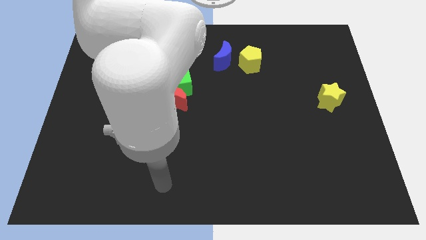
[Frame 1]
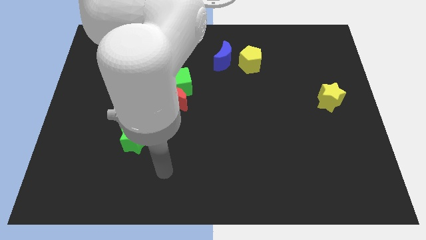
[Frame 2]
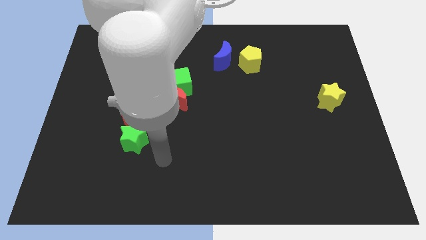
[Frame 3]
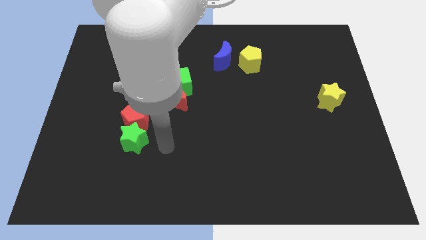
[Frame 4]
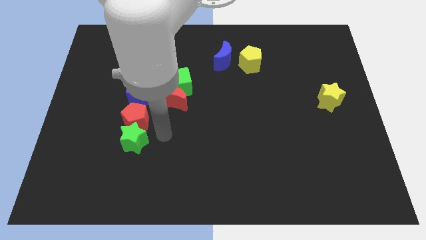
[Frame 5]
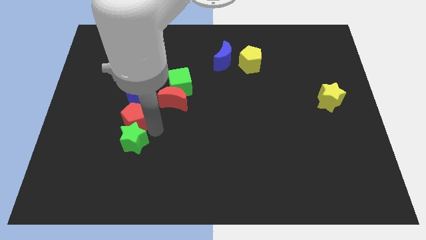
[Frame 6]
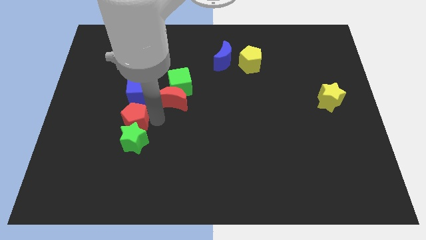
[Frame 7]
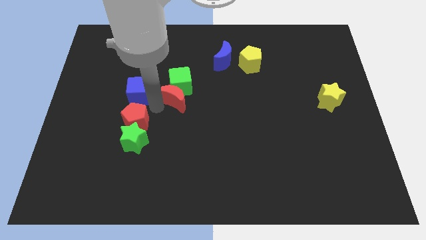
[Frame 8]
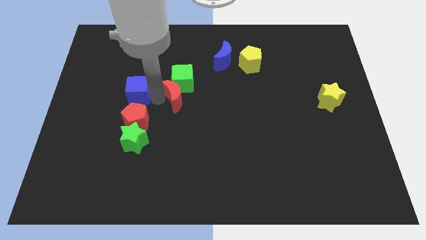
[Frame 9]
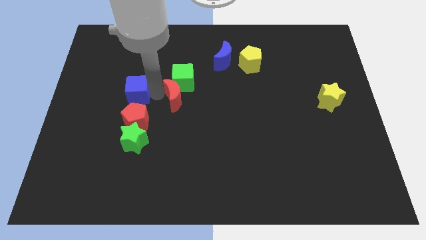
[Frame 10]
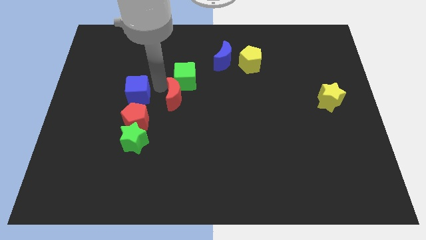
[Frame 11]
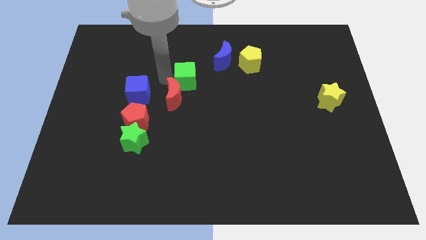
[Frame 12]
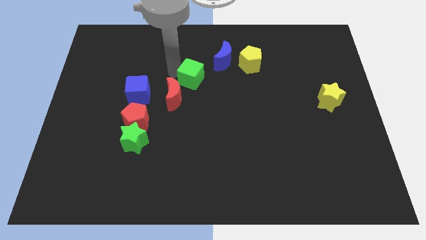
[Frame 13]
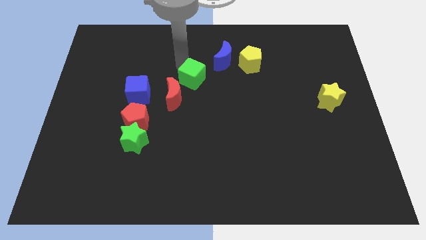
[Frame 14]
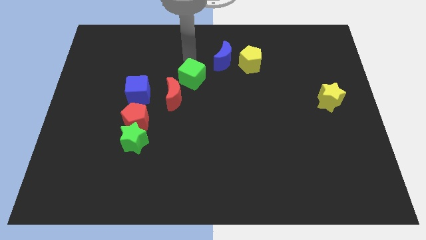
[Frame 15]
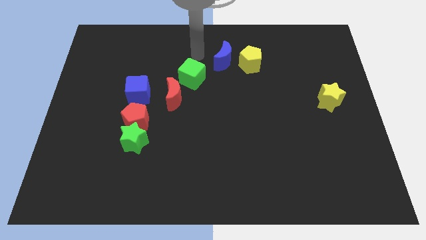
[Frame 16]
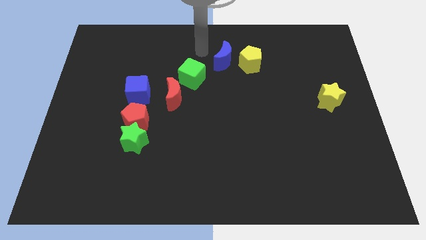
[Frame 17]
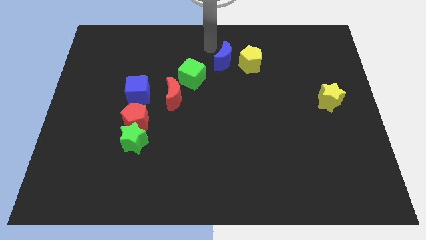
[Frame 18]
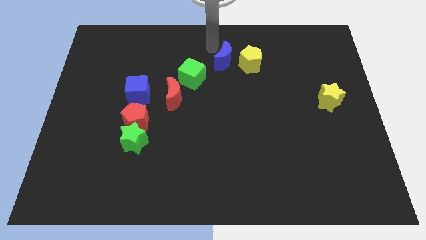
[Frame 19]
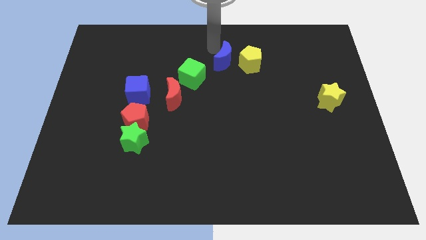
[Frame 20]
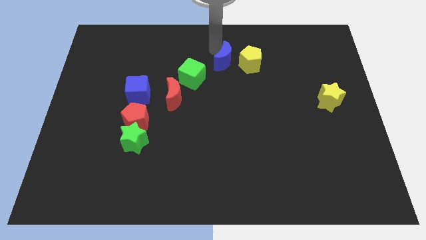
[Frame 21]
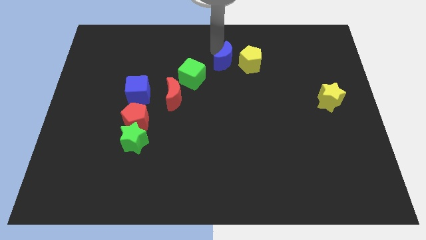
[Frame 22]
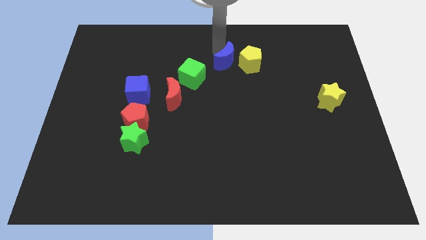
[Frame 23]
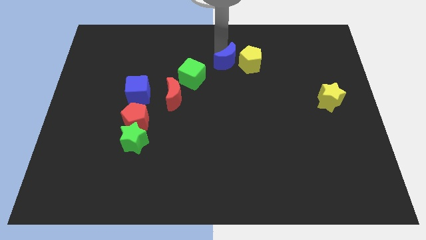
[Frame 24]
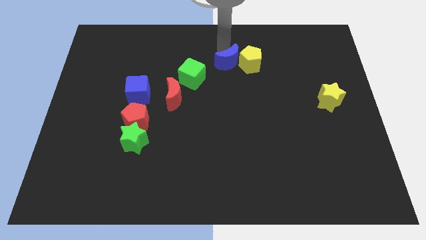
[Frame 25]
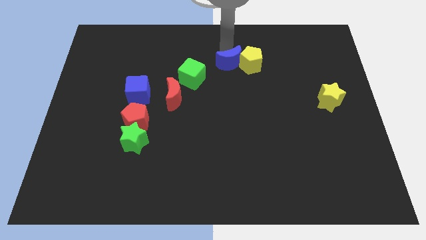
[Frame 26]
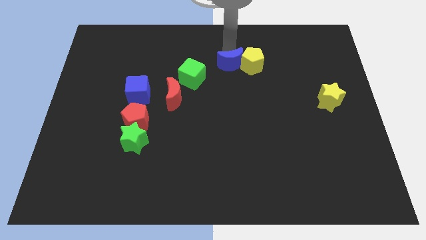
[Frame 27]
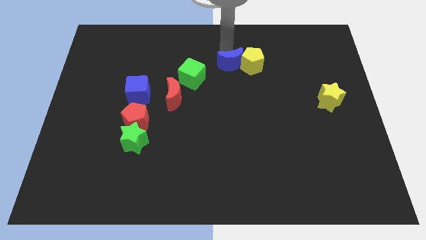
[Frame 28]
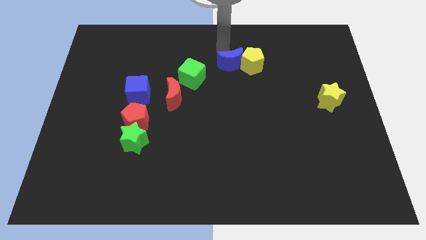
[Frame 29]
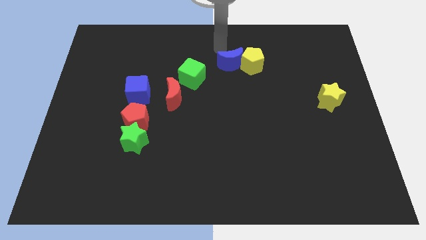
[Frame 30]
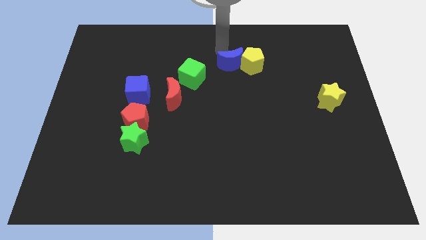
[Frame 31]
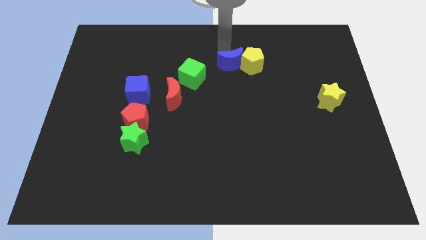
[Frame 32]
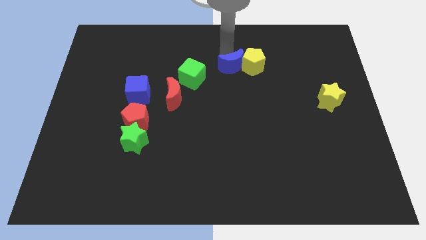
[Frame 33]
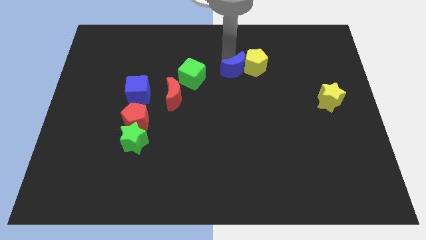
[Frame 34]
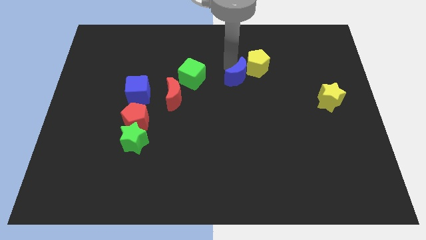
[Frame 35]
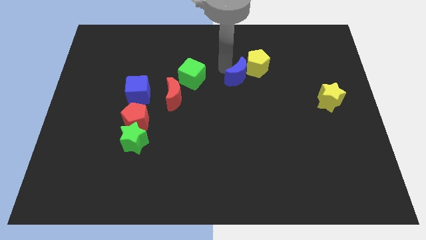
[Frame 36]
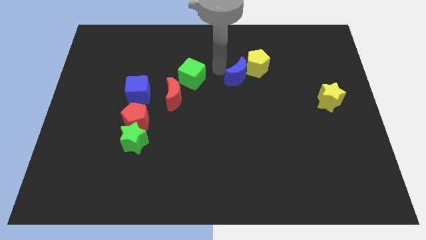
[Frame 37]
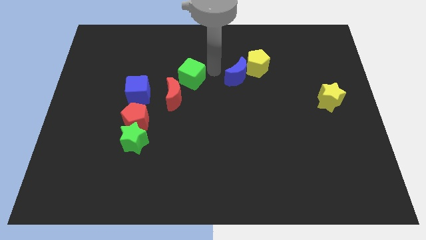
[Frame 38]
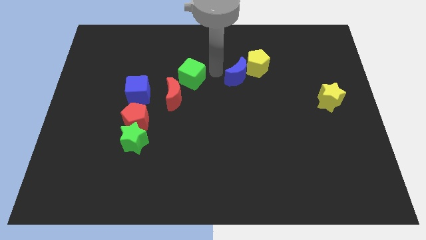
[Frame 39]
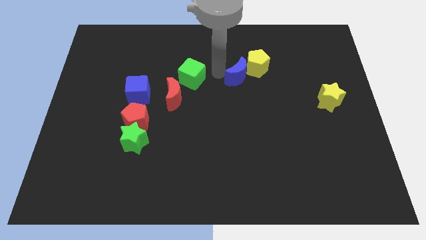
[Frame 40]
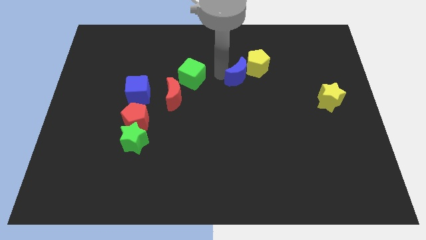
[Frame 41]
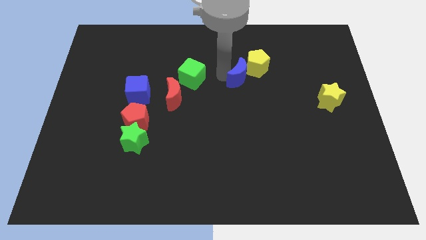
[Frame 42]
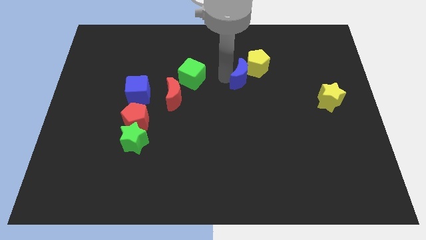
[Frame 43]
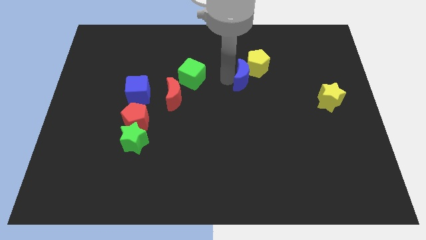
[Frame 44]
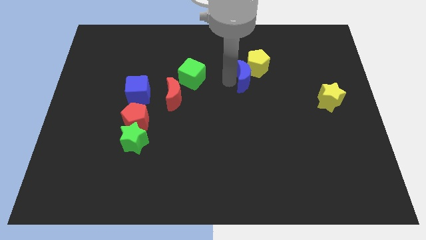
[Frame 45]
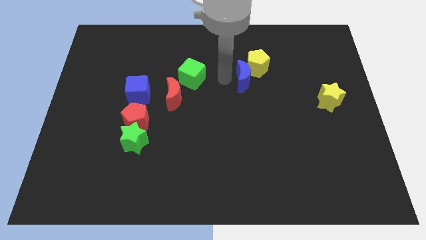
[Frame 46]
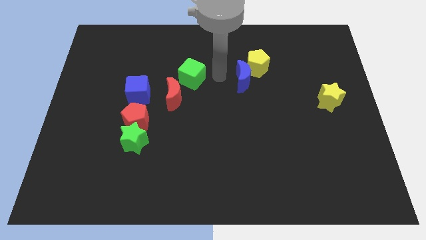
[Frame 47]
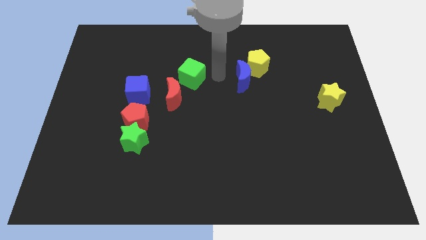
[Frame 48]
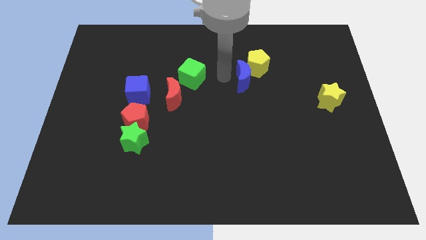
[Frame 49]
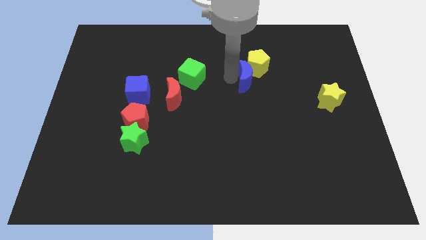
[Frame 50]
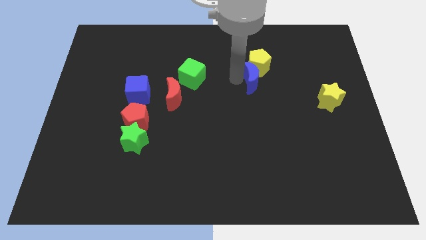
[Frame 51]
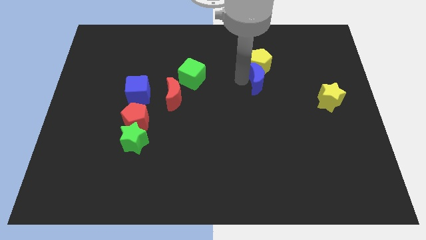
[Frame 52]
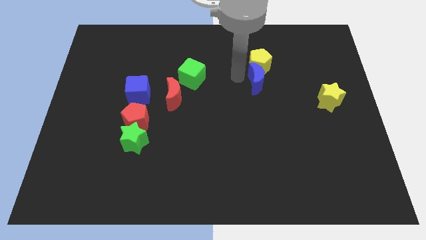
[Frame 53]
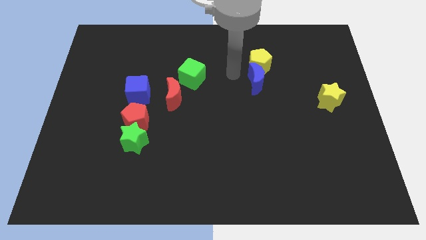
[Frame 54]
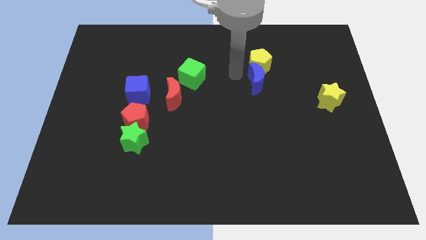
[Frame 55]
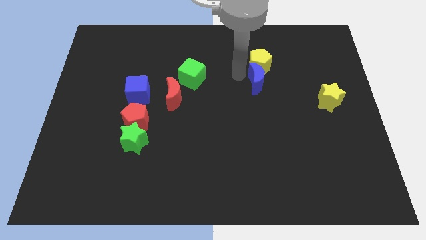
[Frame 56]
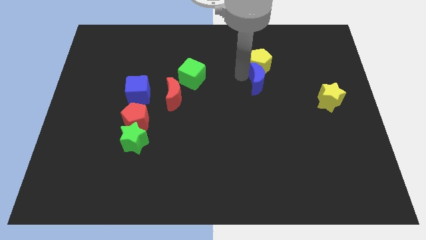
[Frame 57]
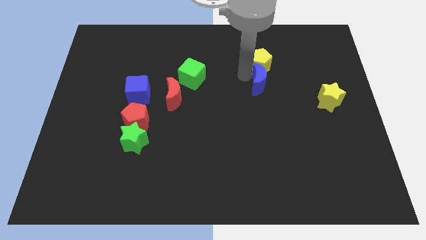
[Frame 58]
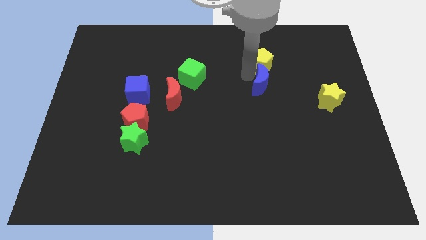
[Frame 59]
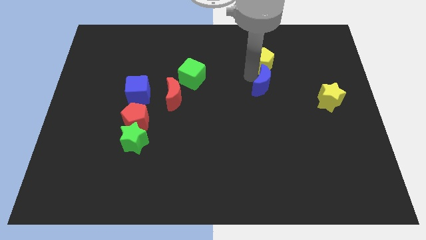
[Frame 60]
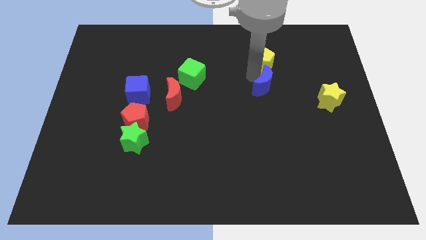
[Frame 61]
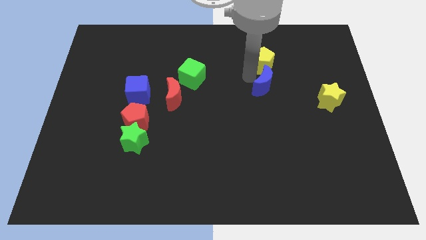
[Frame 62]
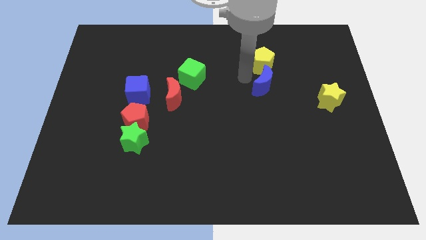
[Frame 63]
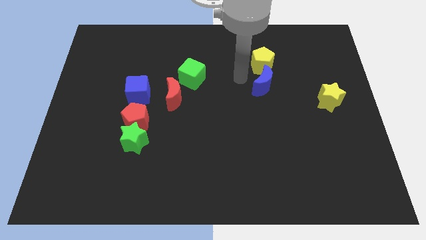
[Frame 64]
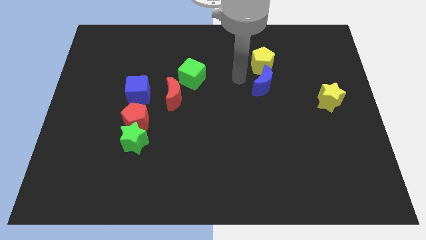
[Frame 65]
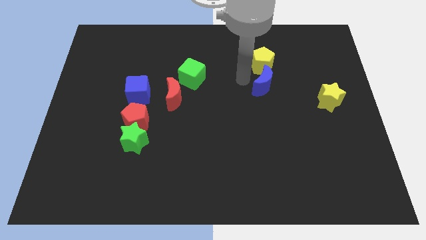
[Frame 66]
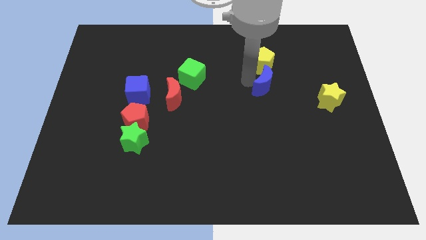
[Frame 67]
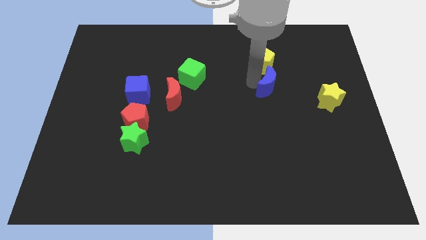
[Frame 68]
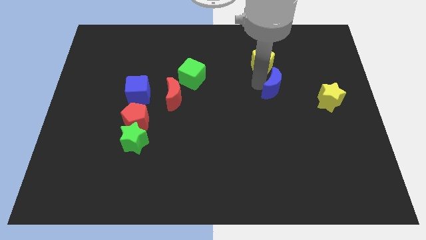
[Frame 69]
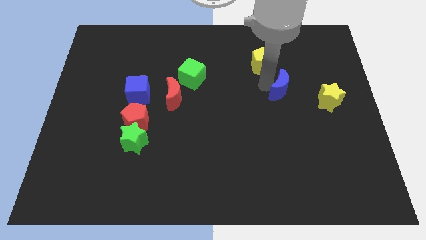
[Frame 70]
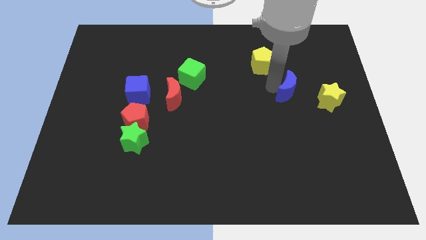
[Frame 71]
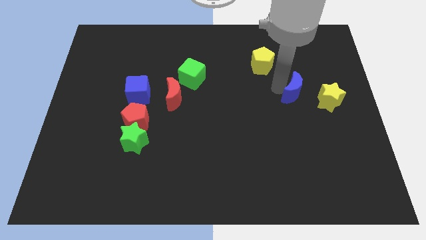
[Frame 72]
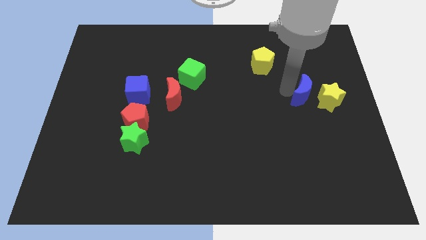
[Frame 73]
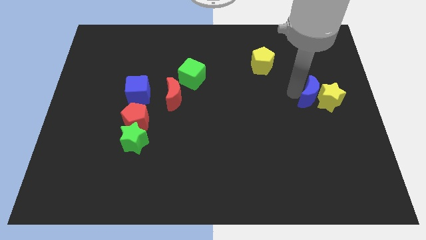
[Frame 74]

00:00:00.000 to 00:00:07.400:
move the blue moon to the yellow star
